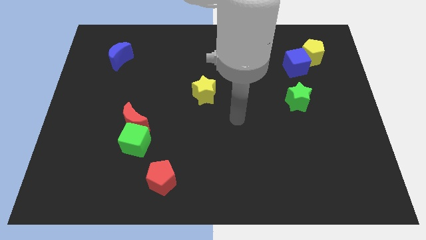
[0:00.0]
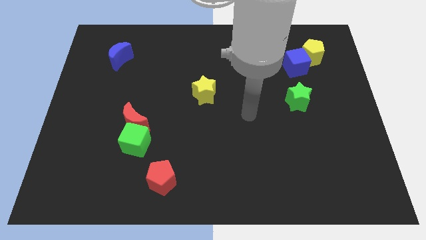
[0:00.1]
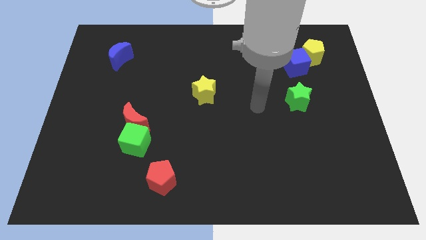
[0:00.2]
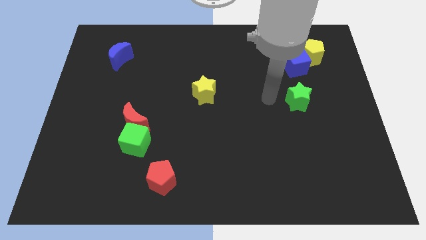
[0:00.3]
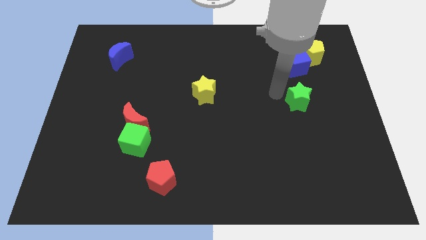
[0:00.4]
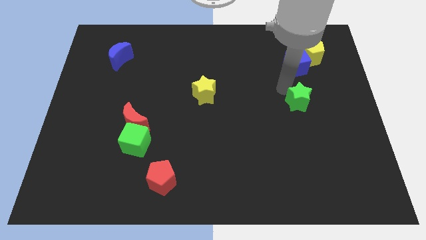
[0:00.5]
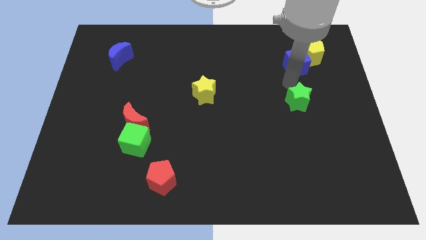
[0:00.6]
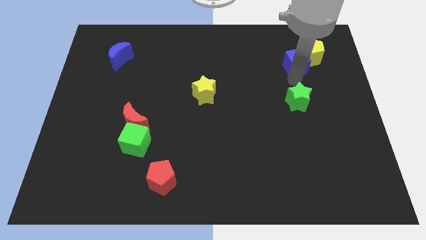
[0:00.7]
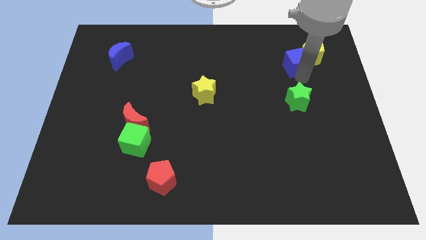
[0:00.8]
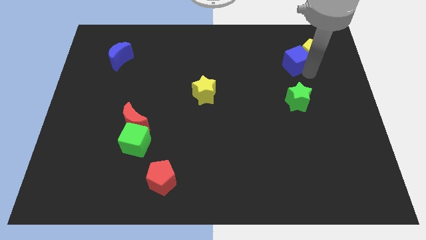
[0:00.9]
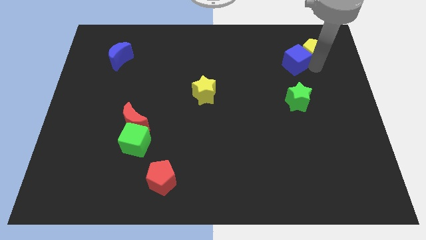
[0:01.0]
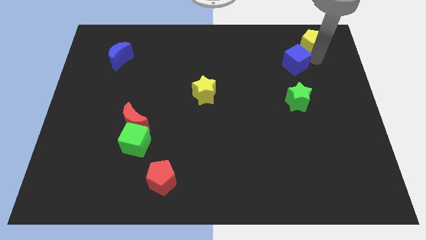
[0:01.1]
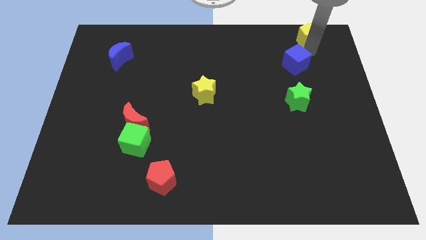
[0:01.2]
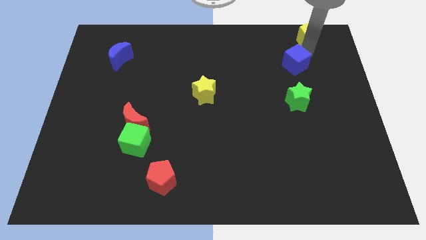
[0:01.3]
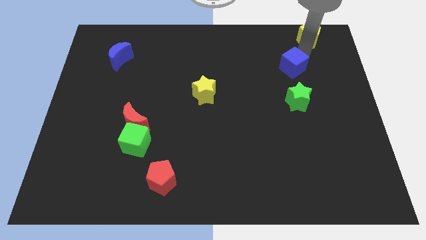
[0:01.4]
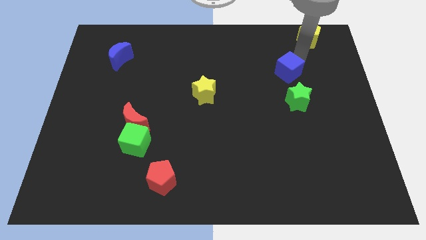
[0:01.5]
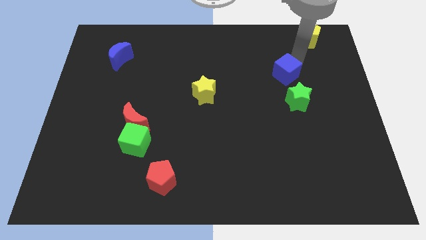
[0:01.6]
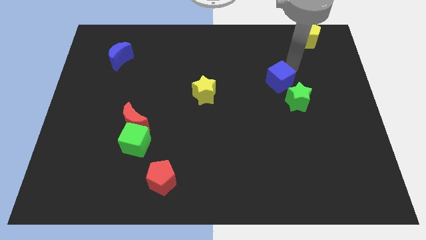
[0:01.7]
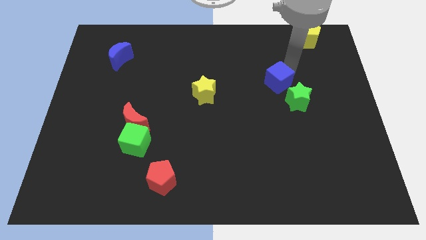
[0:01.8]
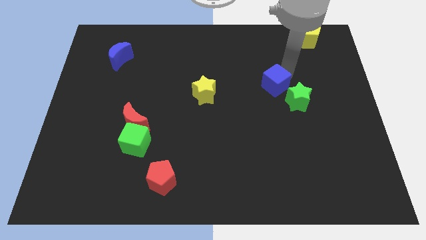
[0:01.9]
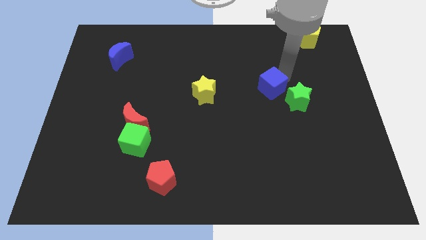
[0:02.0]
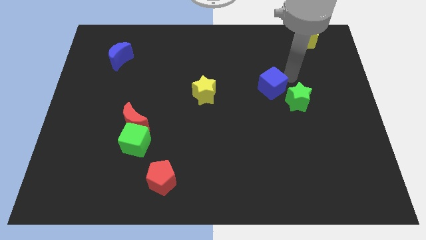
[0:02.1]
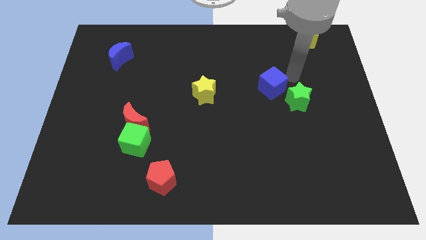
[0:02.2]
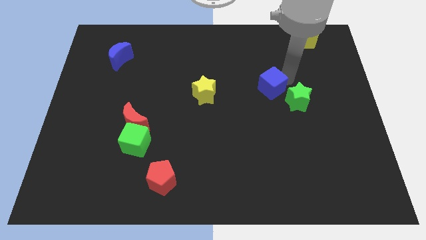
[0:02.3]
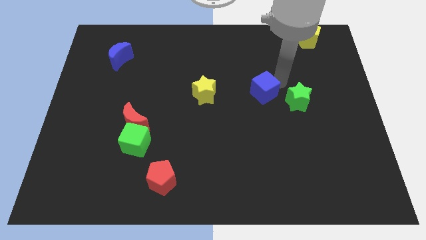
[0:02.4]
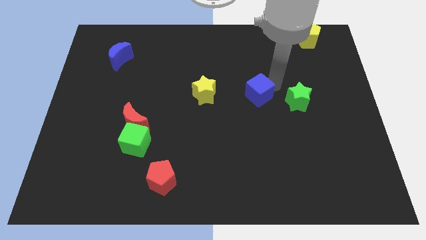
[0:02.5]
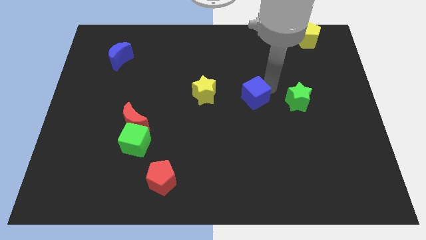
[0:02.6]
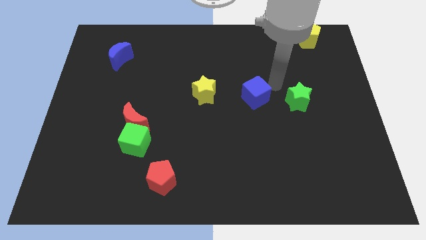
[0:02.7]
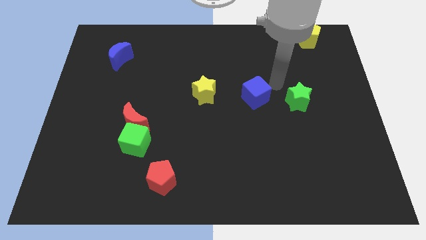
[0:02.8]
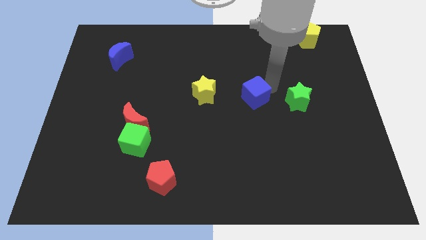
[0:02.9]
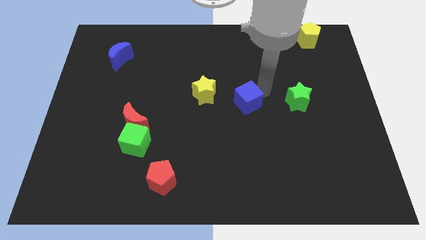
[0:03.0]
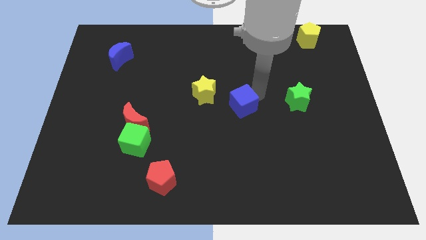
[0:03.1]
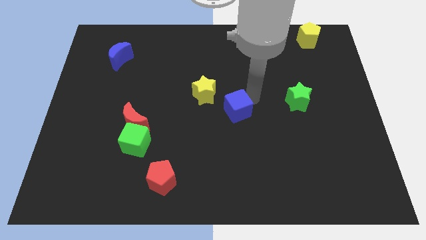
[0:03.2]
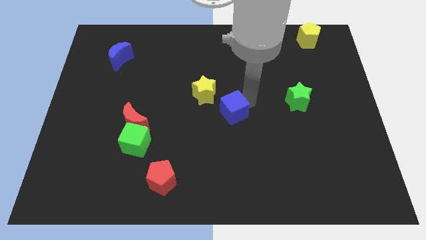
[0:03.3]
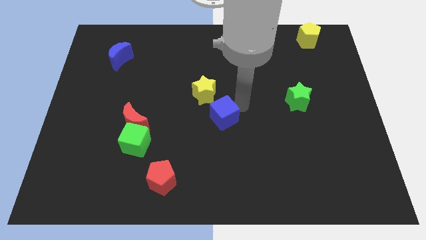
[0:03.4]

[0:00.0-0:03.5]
move the blue cube below the yellow star

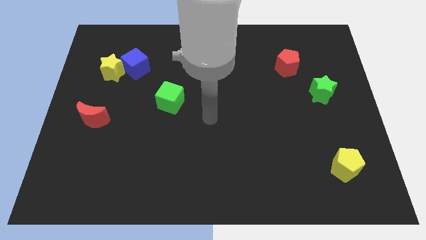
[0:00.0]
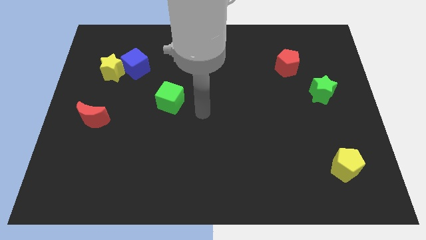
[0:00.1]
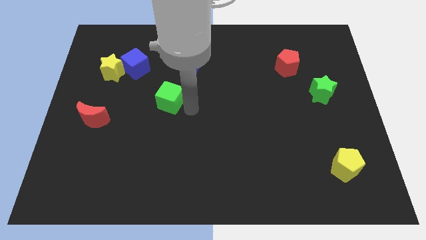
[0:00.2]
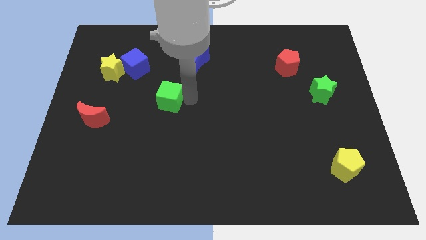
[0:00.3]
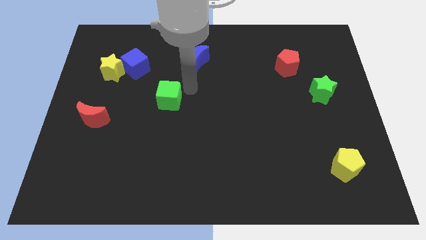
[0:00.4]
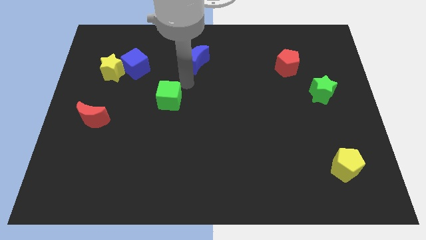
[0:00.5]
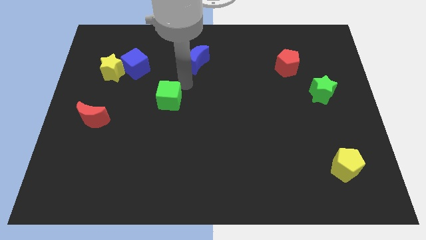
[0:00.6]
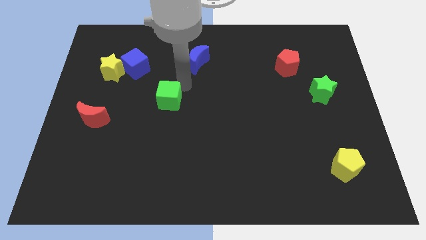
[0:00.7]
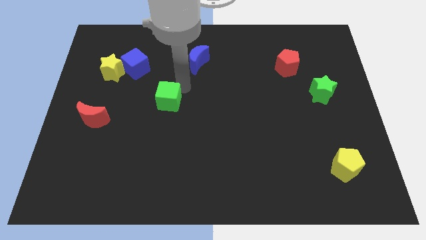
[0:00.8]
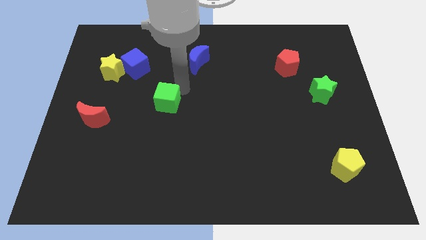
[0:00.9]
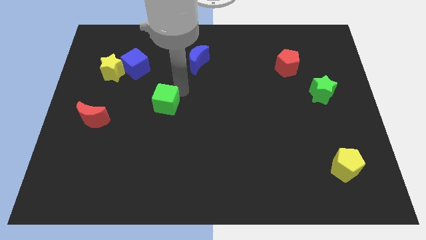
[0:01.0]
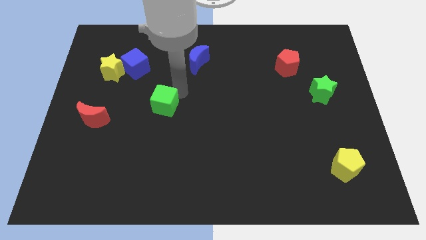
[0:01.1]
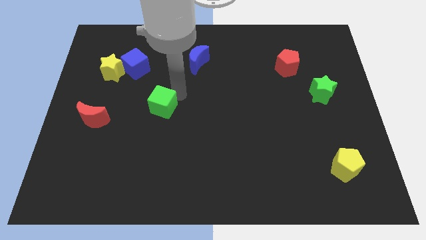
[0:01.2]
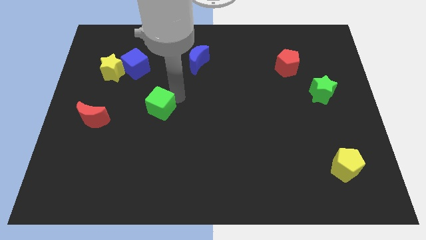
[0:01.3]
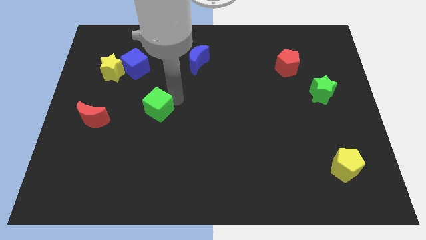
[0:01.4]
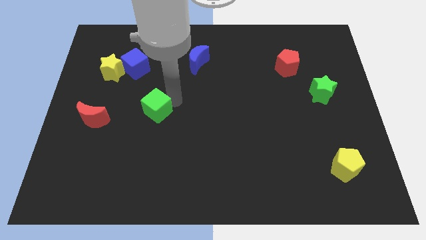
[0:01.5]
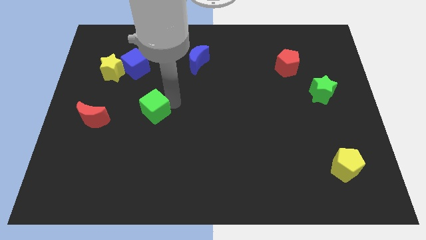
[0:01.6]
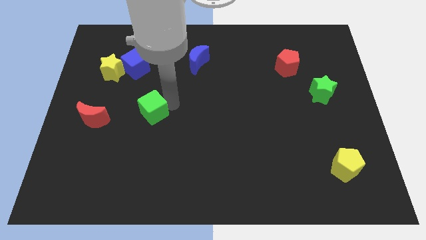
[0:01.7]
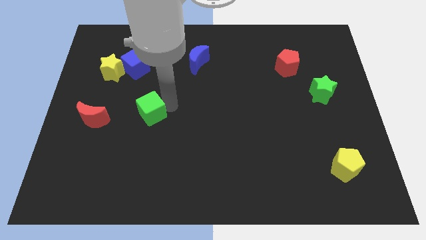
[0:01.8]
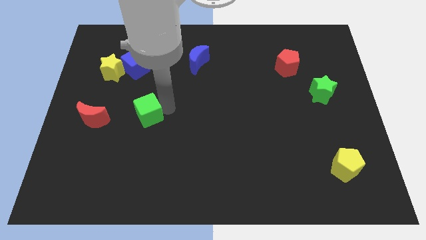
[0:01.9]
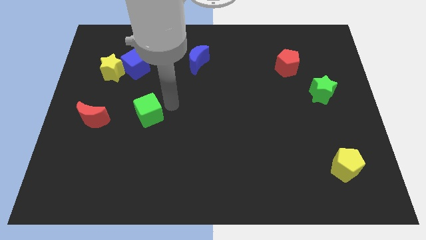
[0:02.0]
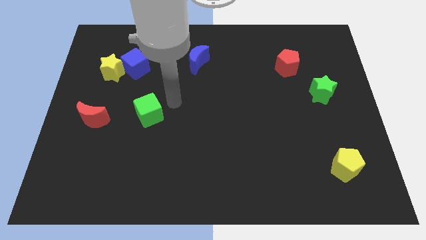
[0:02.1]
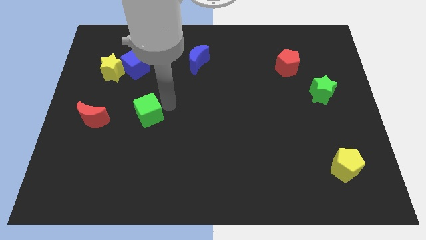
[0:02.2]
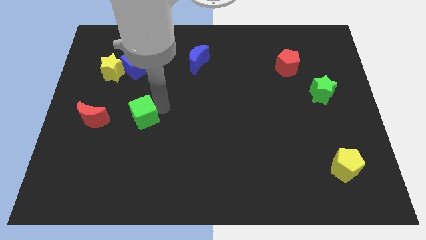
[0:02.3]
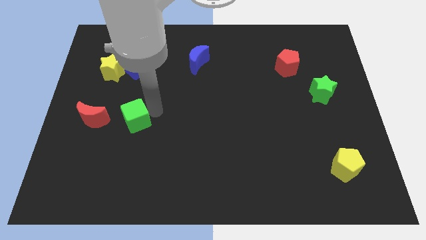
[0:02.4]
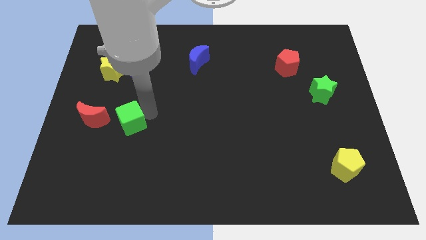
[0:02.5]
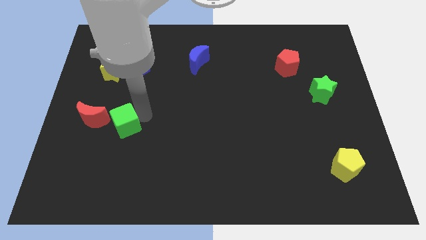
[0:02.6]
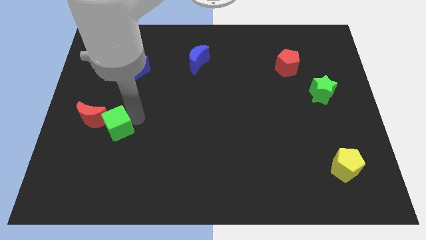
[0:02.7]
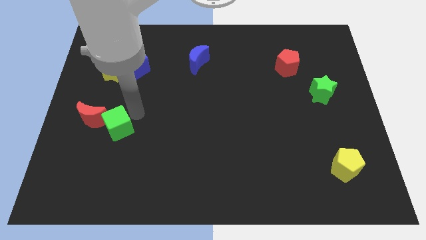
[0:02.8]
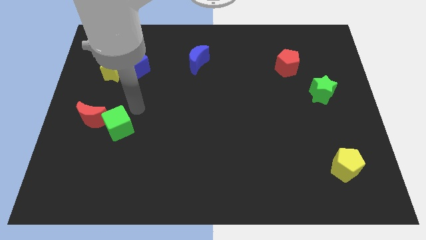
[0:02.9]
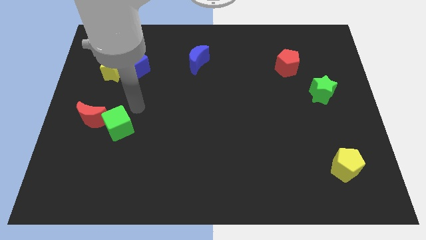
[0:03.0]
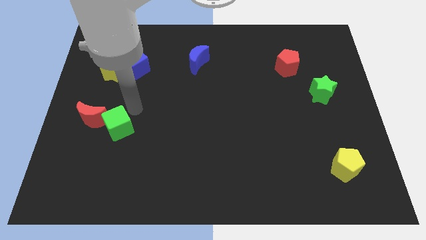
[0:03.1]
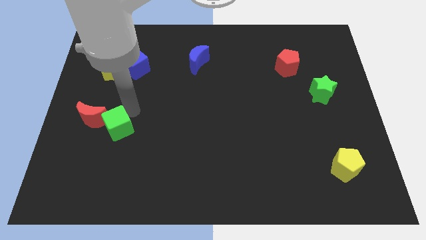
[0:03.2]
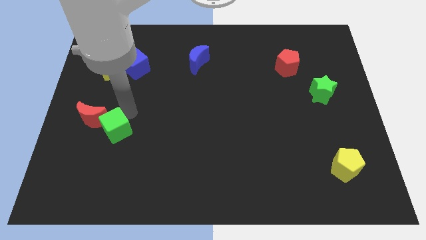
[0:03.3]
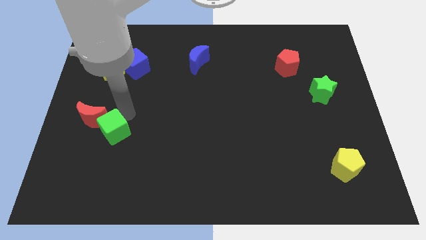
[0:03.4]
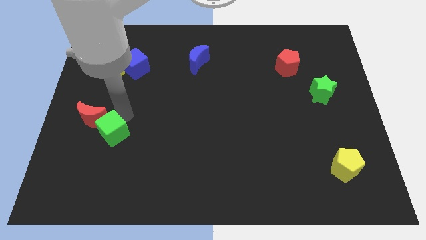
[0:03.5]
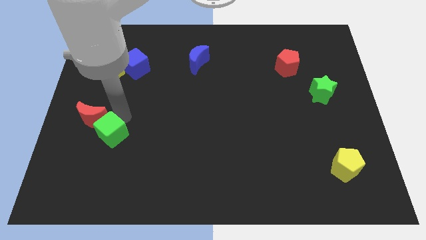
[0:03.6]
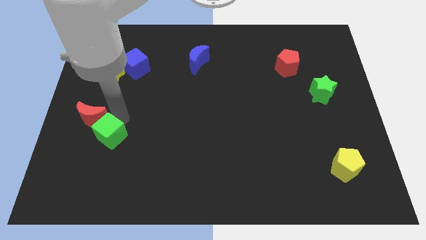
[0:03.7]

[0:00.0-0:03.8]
slide the green cube to the bottom side of the red moon

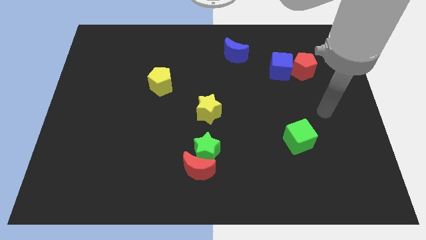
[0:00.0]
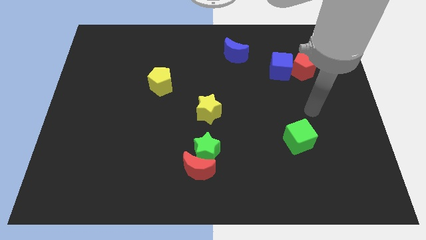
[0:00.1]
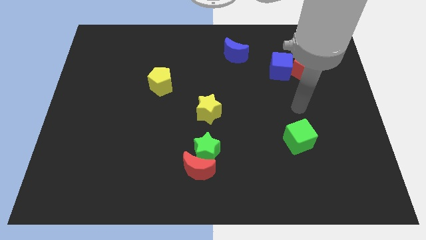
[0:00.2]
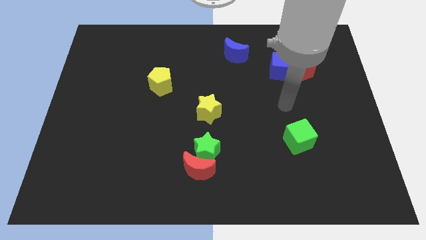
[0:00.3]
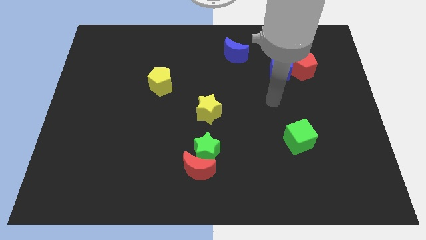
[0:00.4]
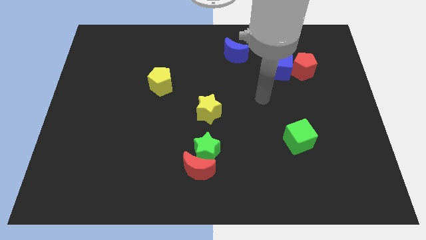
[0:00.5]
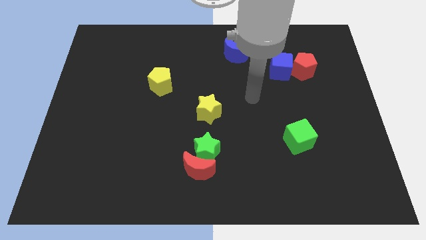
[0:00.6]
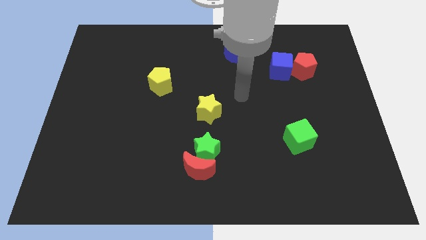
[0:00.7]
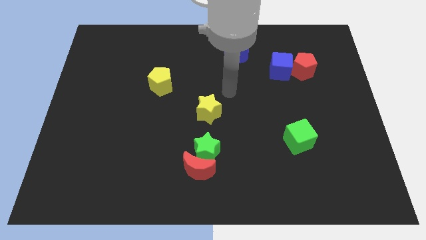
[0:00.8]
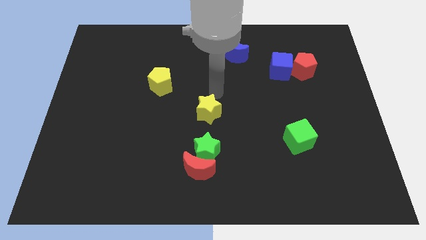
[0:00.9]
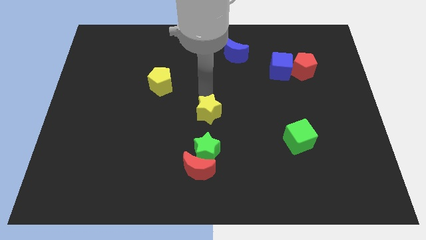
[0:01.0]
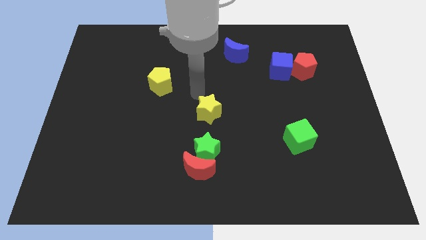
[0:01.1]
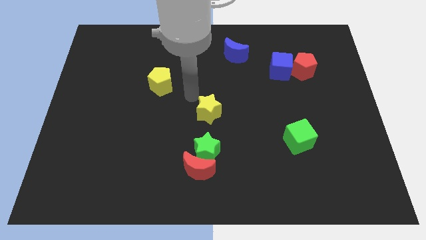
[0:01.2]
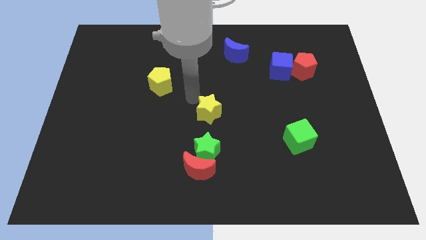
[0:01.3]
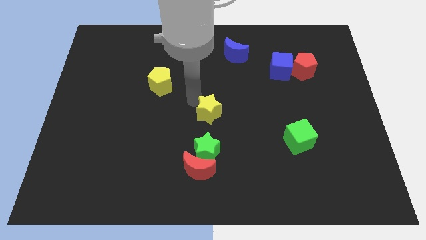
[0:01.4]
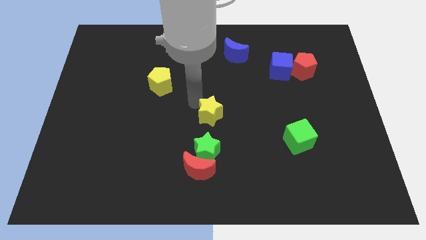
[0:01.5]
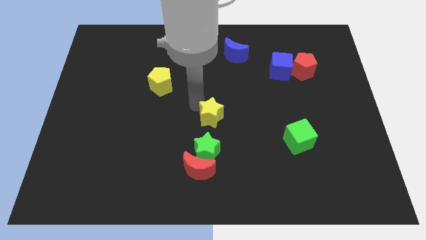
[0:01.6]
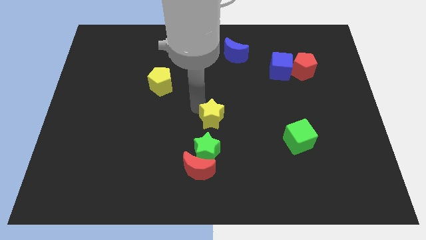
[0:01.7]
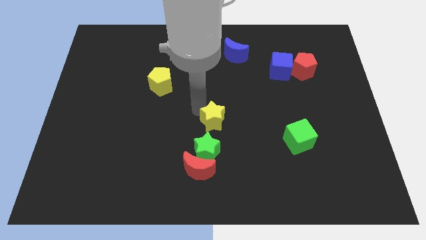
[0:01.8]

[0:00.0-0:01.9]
push the yellow star diagonally up and to the right of the green star
